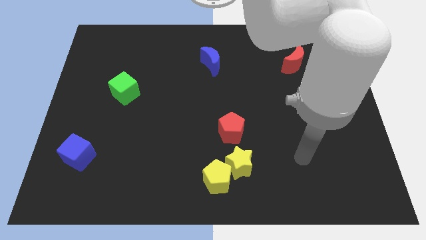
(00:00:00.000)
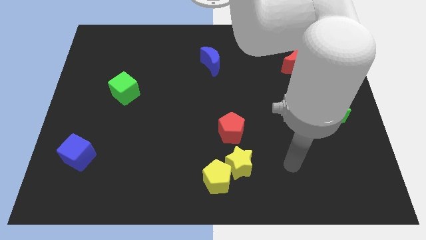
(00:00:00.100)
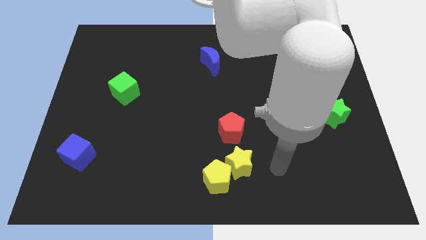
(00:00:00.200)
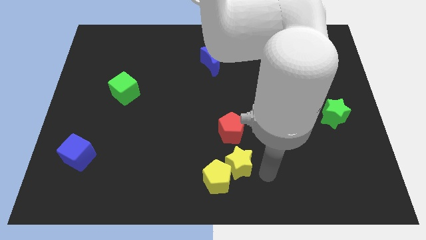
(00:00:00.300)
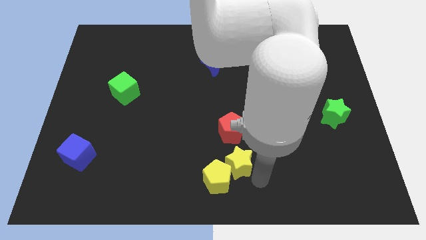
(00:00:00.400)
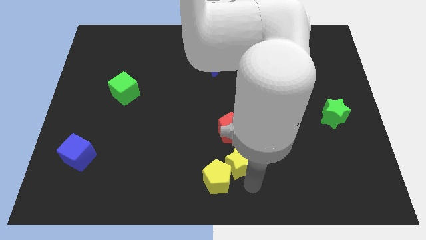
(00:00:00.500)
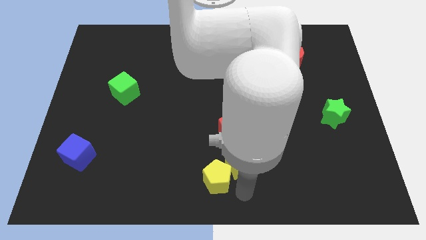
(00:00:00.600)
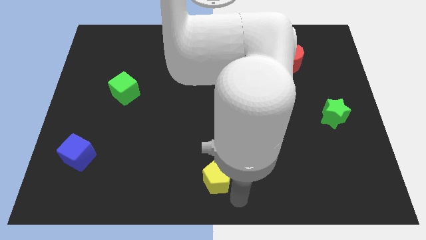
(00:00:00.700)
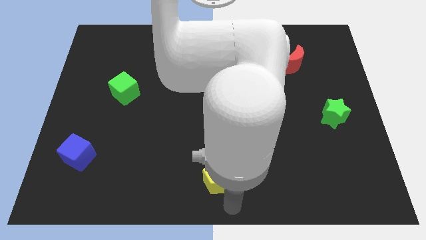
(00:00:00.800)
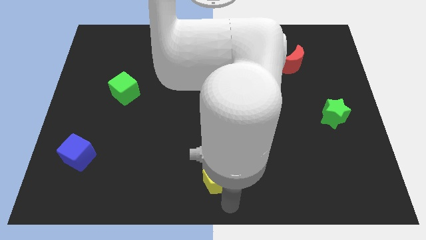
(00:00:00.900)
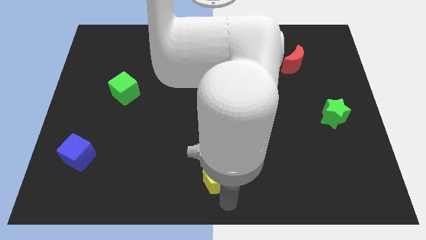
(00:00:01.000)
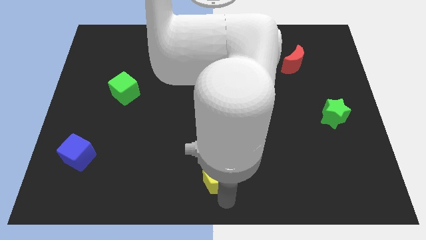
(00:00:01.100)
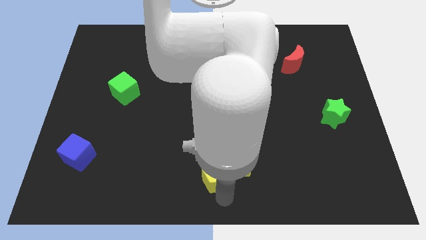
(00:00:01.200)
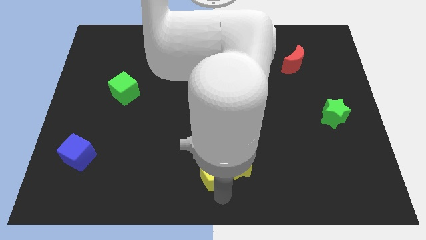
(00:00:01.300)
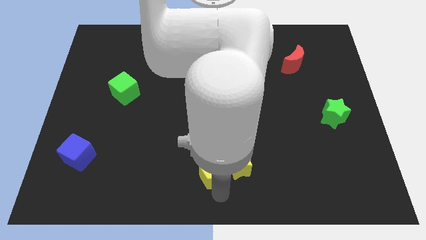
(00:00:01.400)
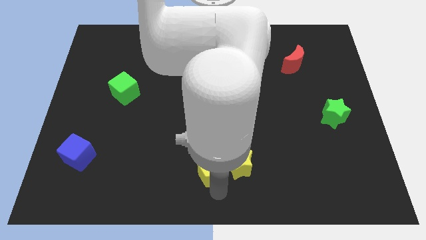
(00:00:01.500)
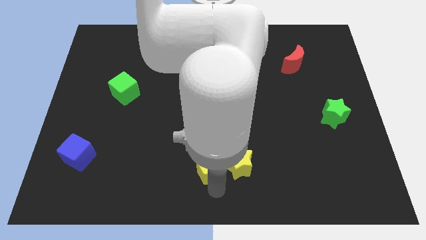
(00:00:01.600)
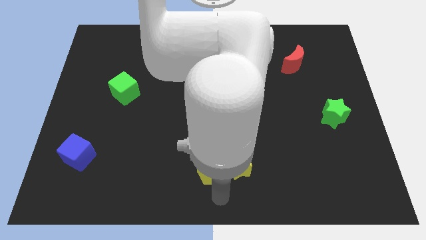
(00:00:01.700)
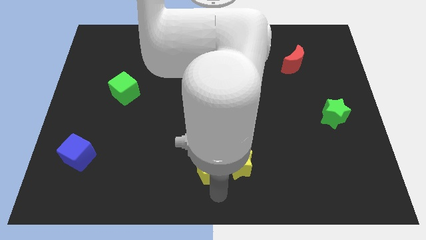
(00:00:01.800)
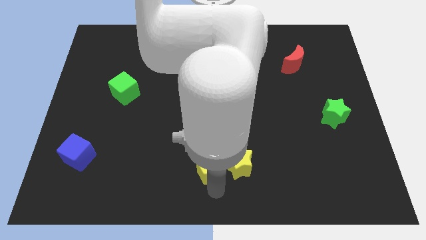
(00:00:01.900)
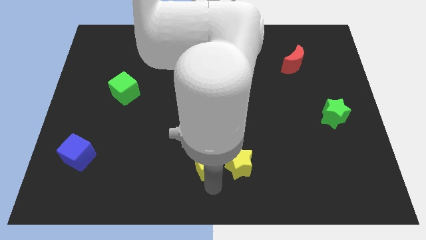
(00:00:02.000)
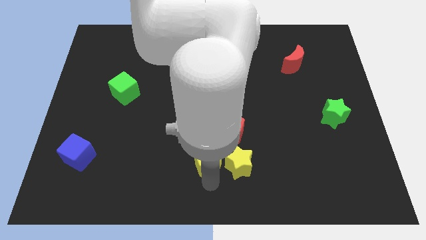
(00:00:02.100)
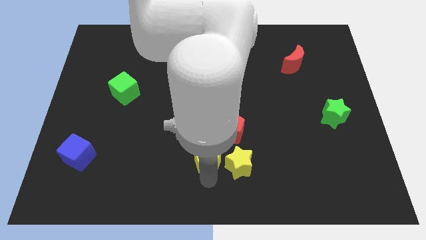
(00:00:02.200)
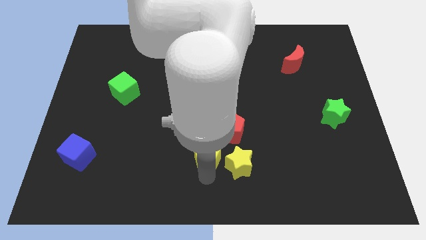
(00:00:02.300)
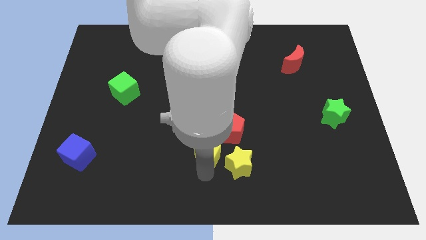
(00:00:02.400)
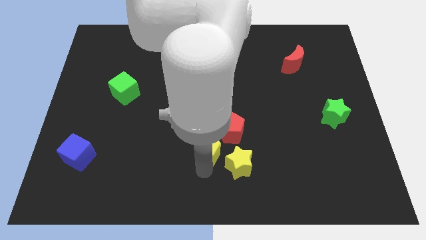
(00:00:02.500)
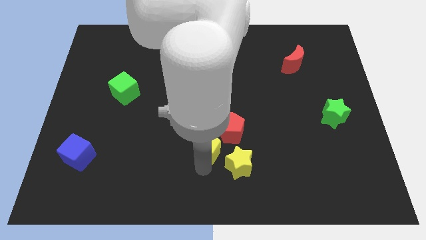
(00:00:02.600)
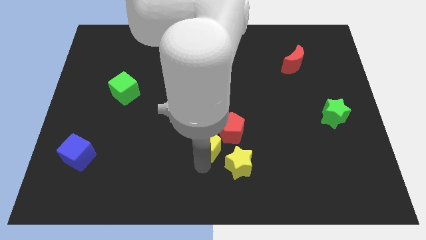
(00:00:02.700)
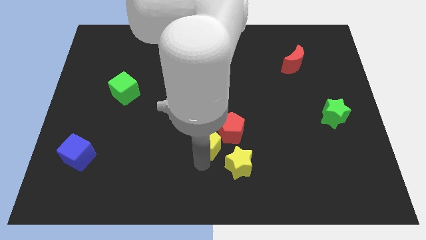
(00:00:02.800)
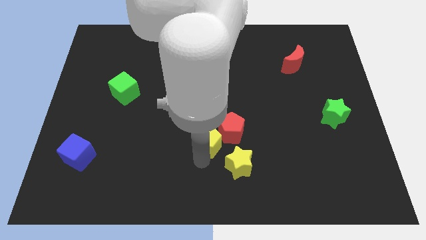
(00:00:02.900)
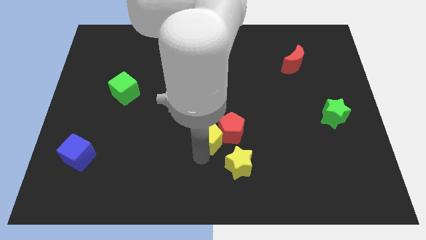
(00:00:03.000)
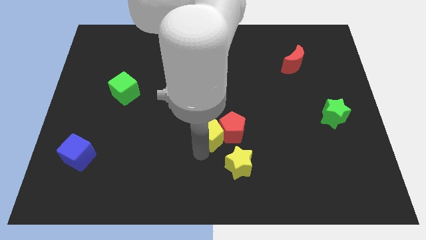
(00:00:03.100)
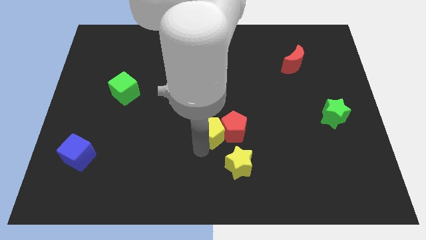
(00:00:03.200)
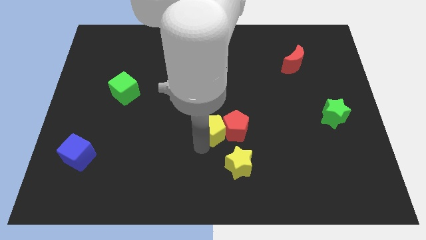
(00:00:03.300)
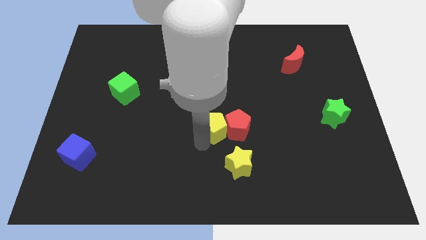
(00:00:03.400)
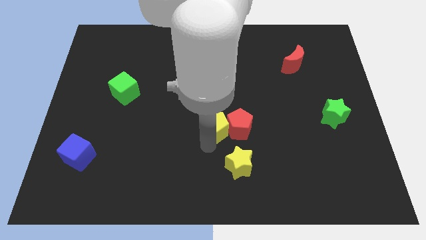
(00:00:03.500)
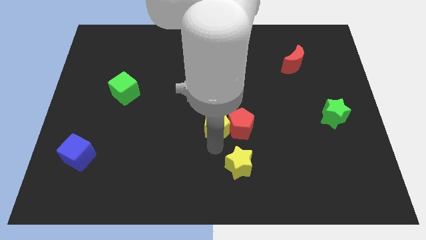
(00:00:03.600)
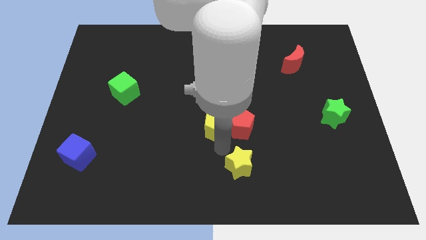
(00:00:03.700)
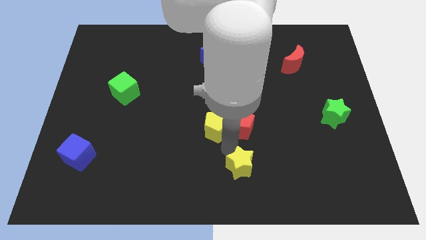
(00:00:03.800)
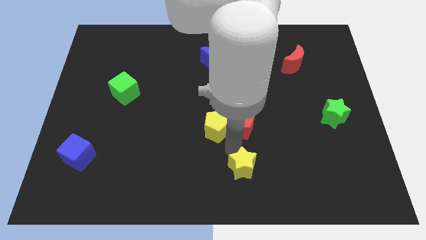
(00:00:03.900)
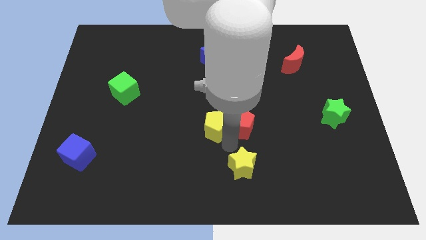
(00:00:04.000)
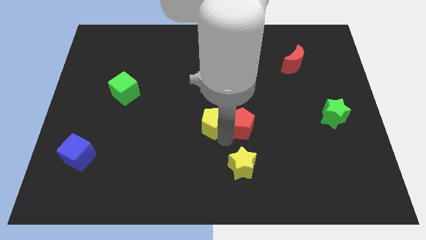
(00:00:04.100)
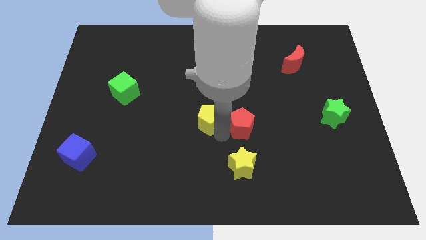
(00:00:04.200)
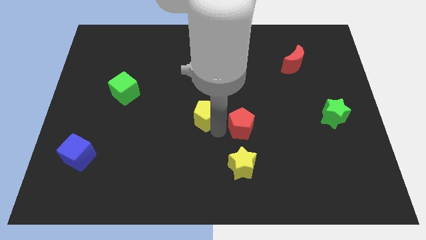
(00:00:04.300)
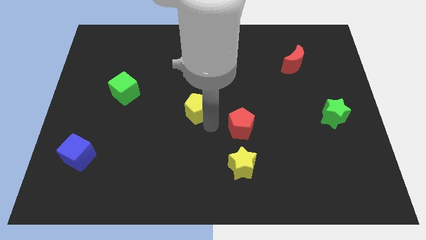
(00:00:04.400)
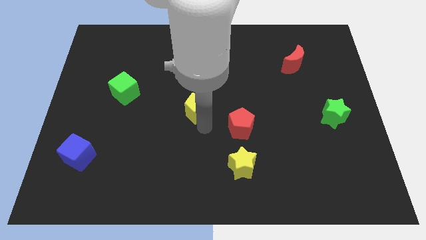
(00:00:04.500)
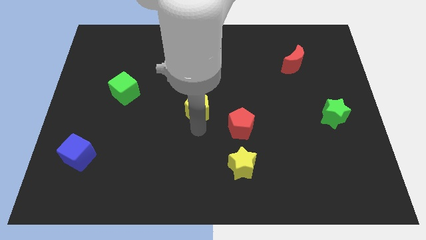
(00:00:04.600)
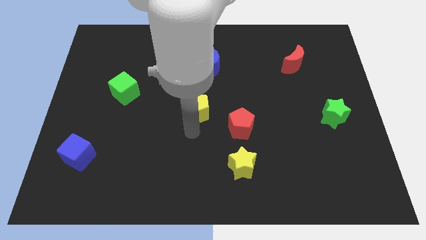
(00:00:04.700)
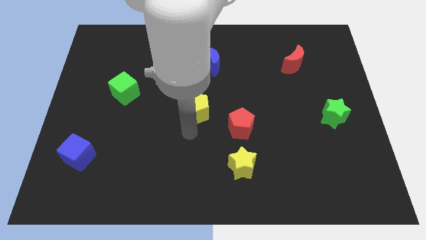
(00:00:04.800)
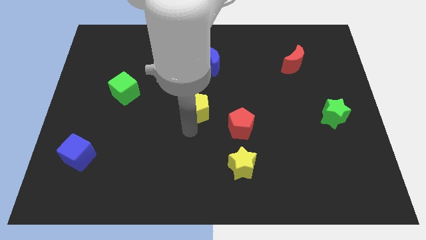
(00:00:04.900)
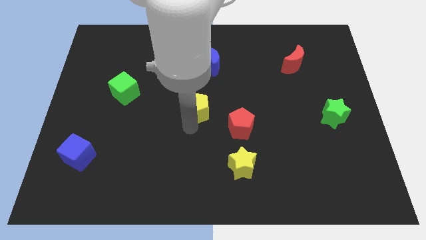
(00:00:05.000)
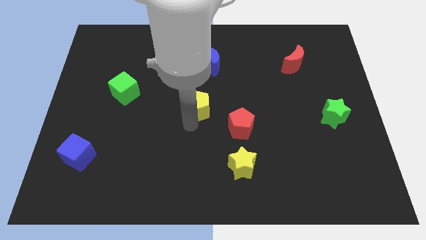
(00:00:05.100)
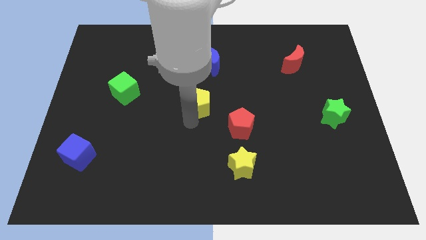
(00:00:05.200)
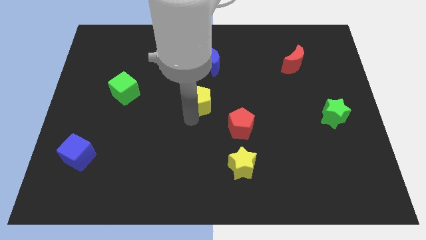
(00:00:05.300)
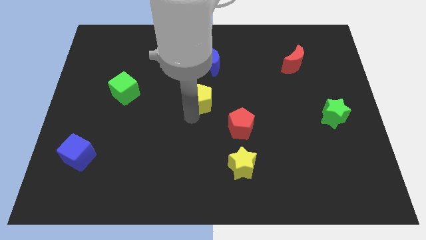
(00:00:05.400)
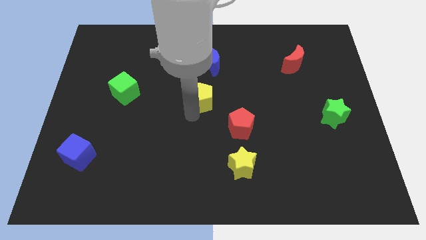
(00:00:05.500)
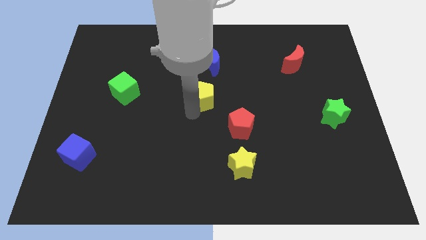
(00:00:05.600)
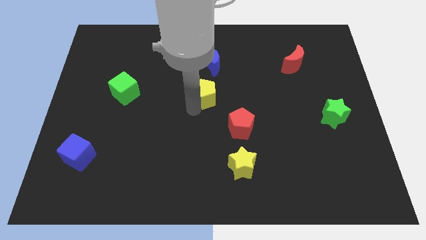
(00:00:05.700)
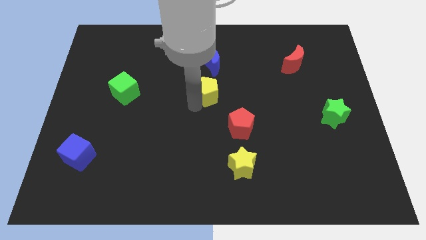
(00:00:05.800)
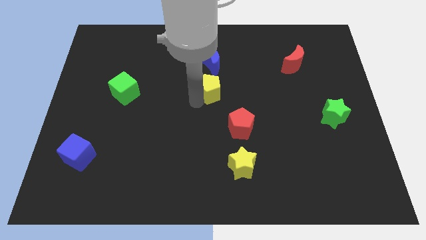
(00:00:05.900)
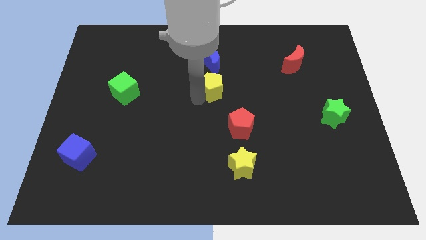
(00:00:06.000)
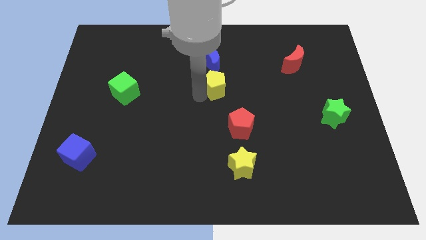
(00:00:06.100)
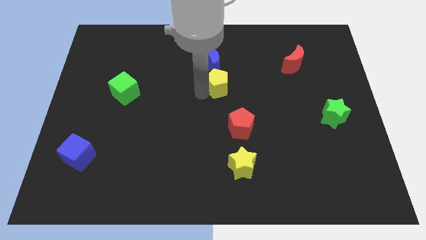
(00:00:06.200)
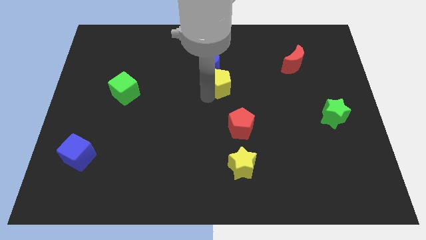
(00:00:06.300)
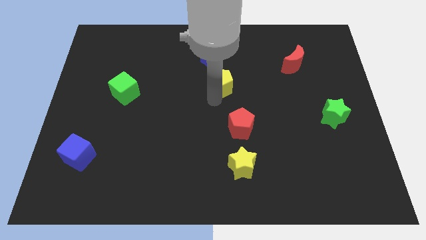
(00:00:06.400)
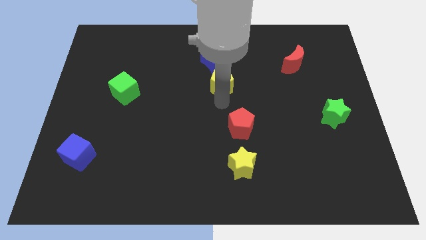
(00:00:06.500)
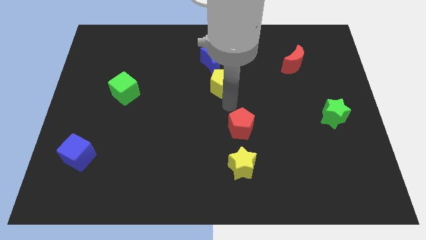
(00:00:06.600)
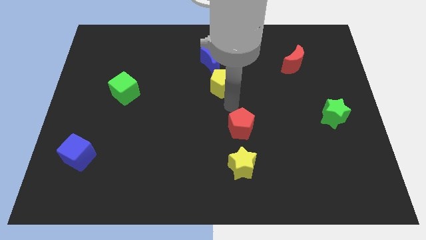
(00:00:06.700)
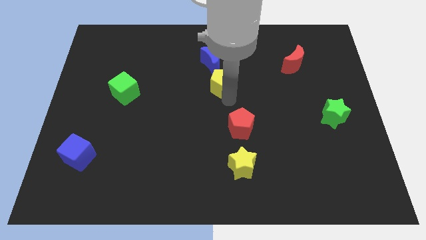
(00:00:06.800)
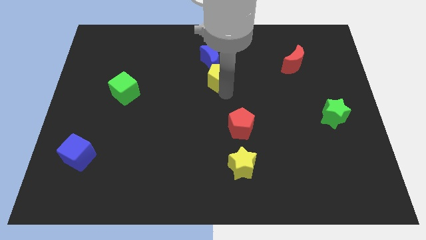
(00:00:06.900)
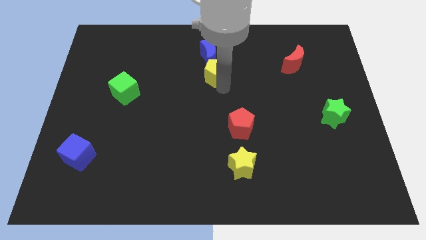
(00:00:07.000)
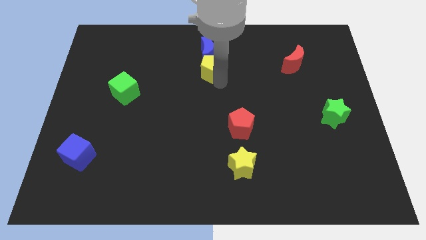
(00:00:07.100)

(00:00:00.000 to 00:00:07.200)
slide the yellow pentagon close to the blue moon

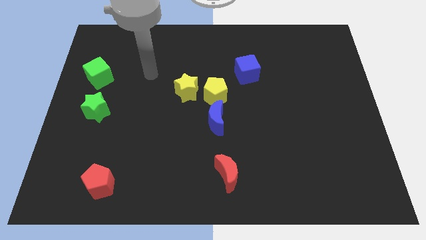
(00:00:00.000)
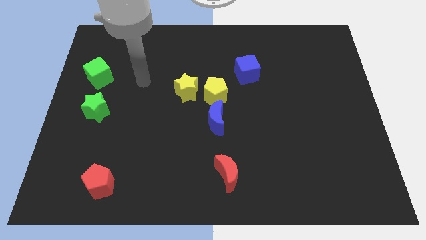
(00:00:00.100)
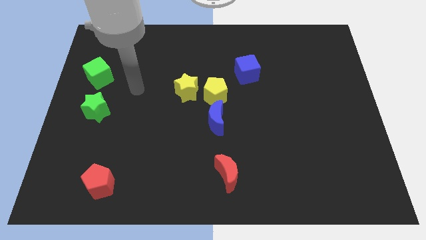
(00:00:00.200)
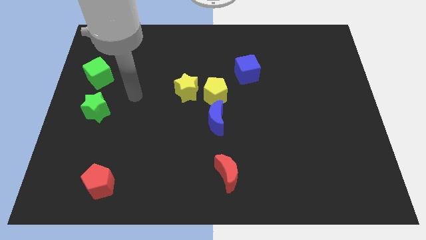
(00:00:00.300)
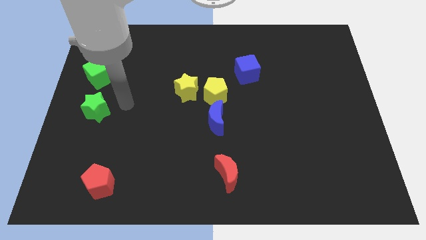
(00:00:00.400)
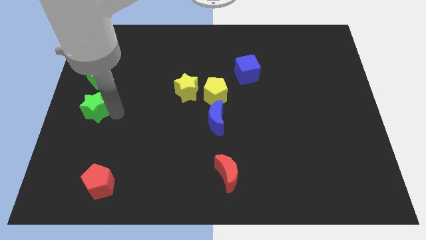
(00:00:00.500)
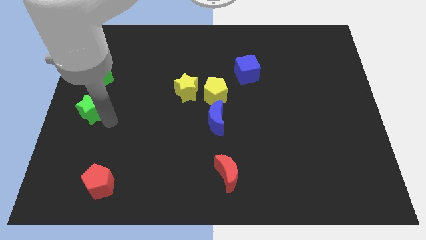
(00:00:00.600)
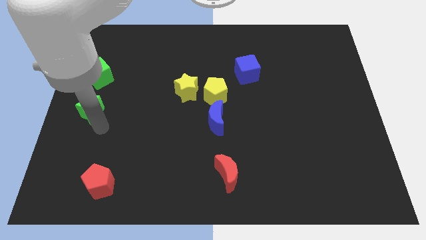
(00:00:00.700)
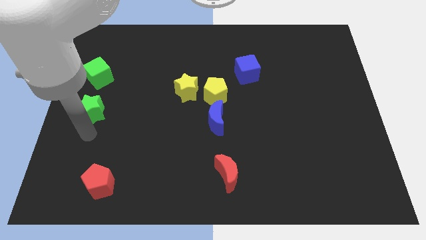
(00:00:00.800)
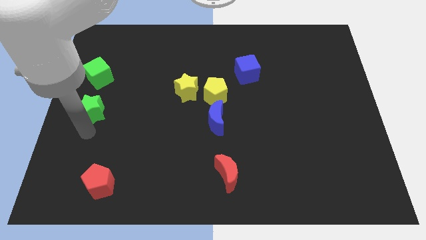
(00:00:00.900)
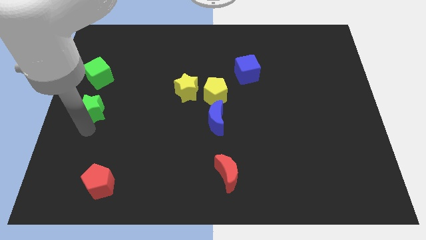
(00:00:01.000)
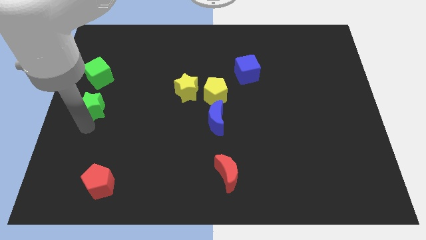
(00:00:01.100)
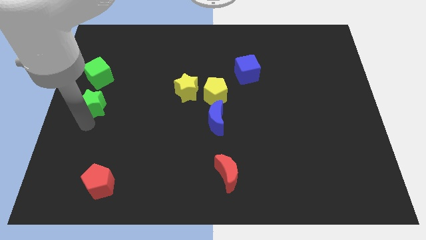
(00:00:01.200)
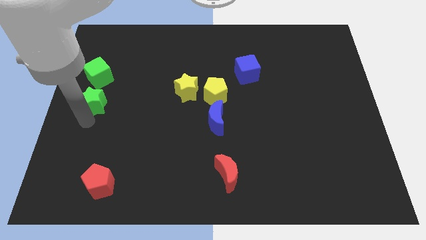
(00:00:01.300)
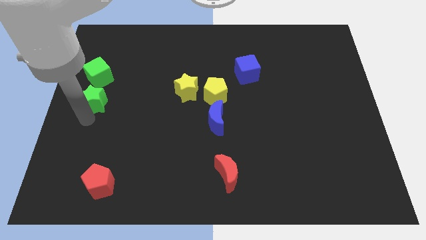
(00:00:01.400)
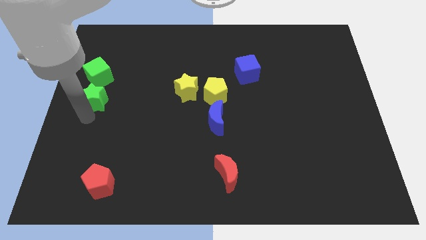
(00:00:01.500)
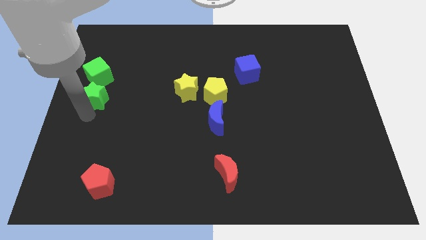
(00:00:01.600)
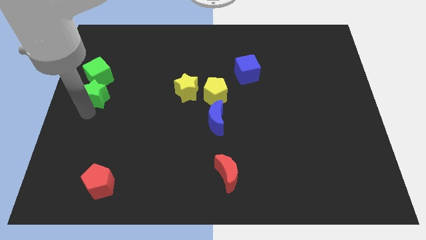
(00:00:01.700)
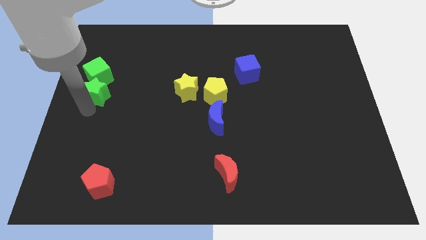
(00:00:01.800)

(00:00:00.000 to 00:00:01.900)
push the green star close to the green cube
